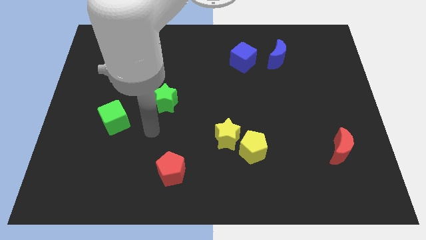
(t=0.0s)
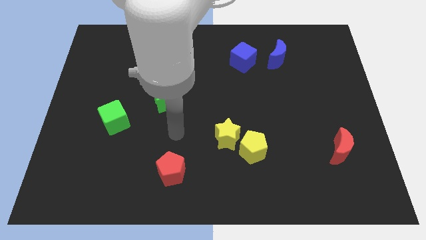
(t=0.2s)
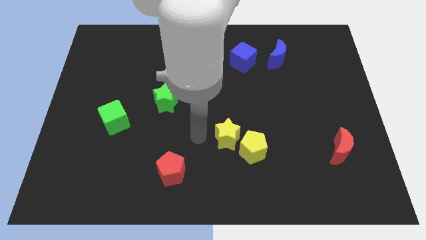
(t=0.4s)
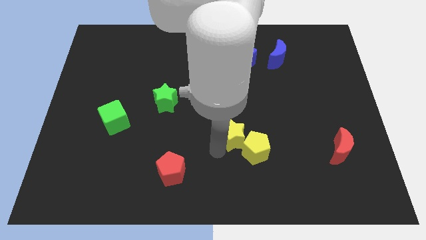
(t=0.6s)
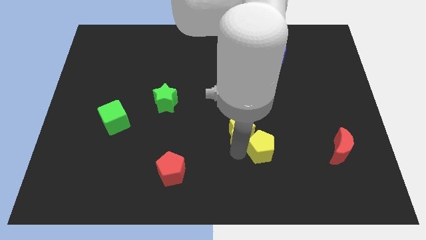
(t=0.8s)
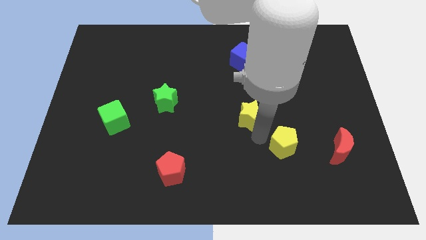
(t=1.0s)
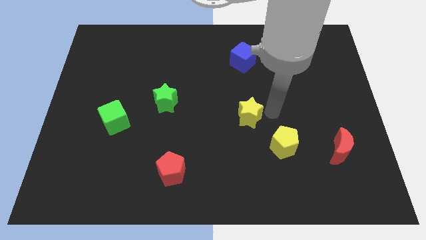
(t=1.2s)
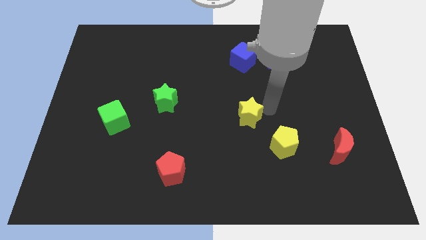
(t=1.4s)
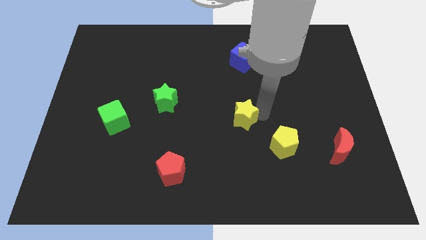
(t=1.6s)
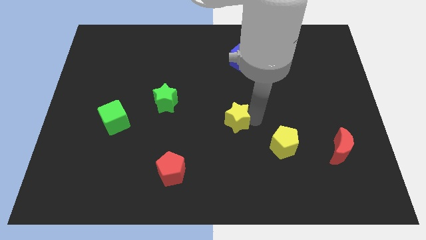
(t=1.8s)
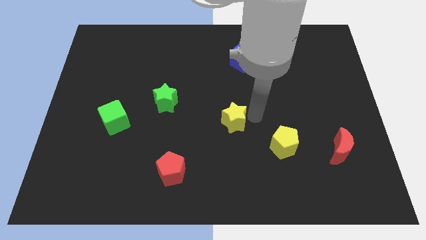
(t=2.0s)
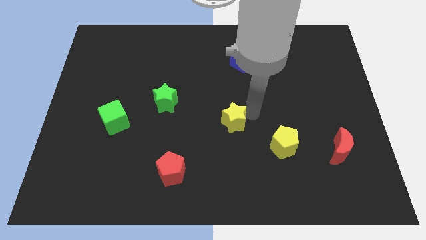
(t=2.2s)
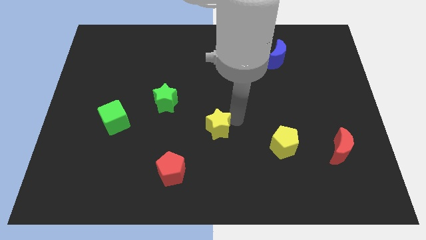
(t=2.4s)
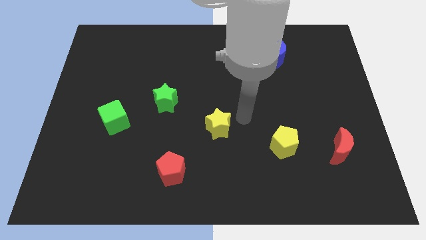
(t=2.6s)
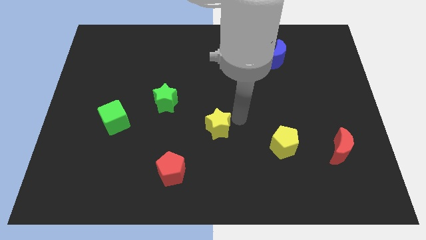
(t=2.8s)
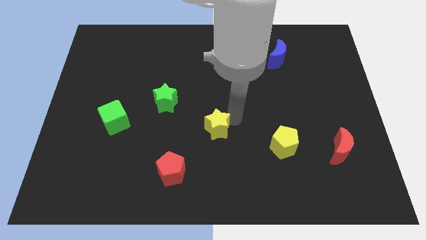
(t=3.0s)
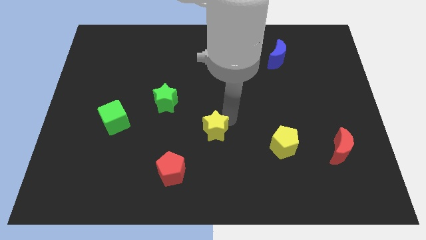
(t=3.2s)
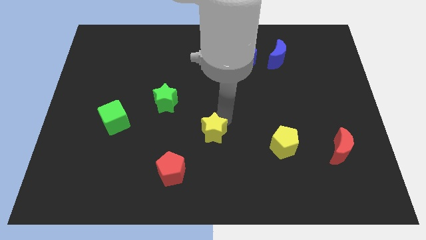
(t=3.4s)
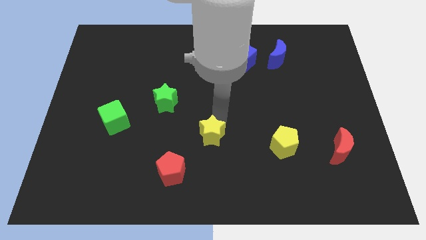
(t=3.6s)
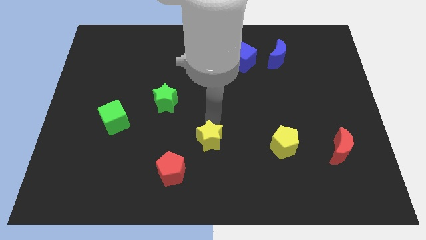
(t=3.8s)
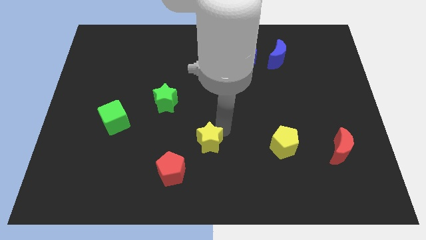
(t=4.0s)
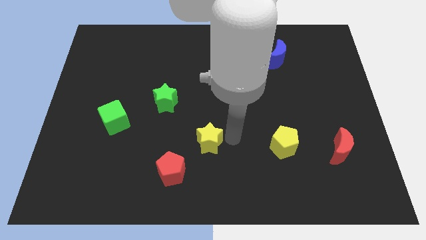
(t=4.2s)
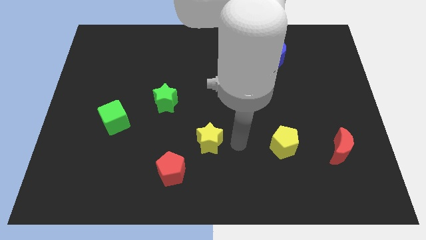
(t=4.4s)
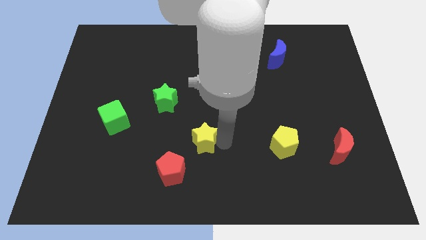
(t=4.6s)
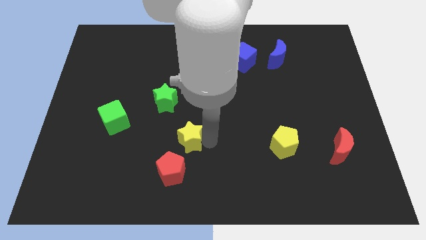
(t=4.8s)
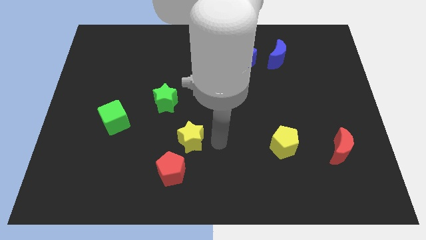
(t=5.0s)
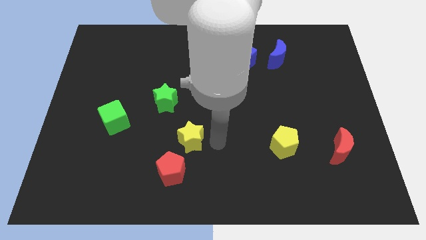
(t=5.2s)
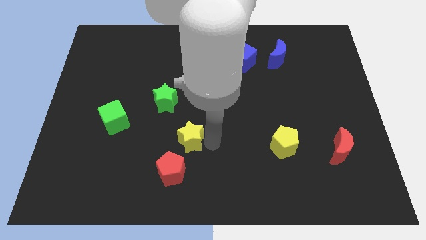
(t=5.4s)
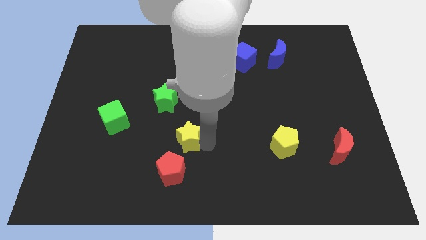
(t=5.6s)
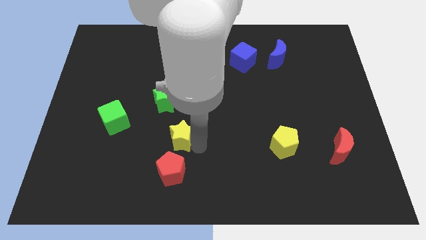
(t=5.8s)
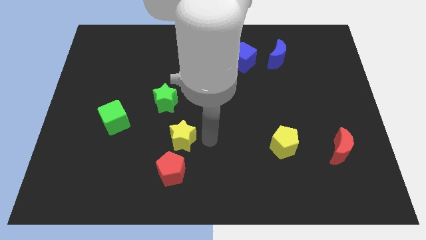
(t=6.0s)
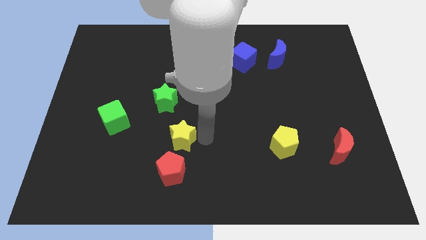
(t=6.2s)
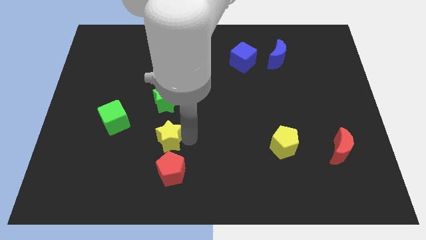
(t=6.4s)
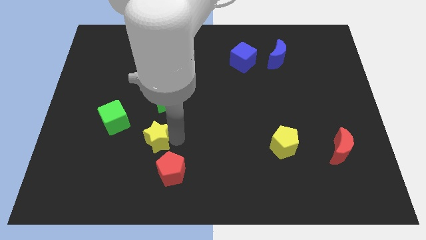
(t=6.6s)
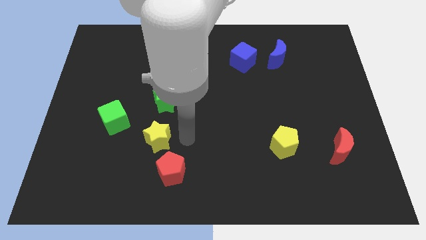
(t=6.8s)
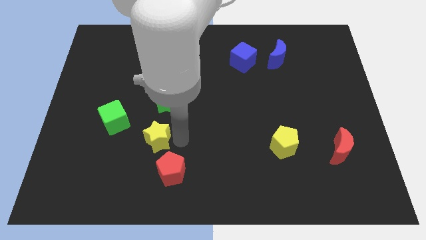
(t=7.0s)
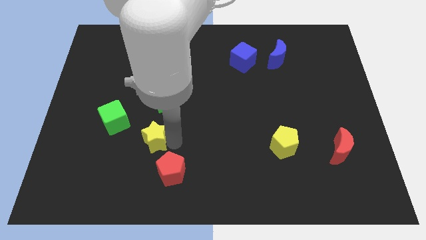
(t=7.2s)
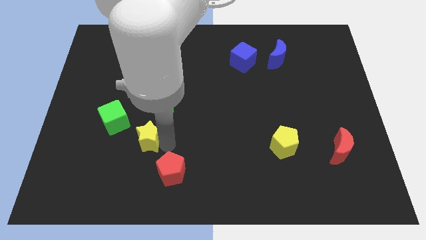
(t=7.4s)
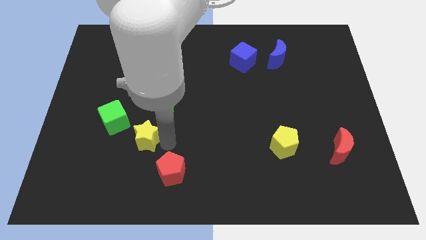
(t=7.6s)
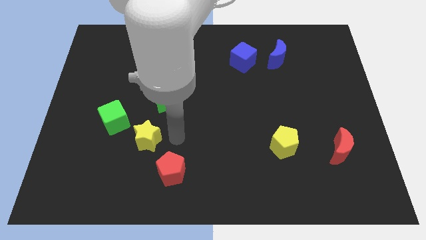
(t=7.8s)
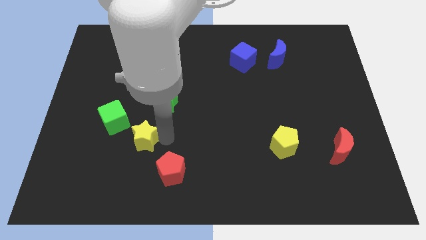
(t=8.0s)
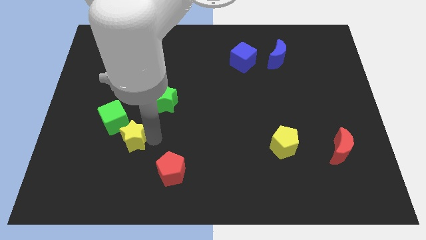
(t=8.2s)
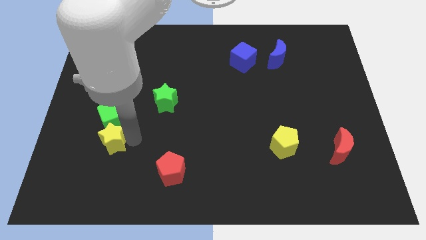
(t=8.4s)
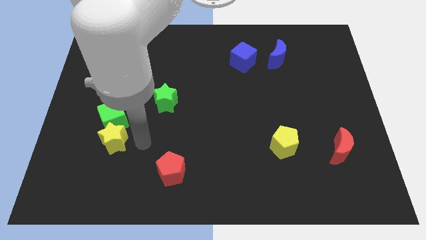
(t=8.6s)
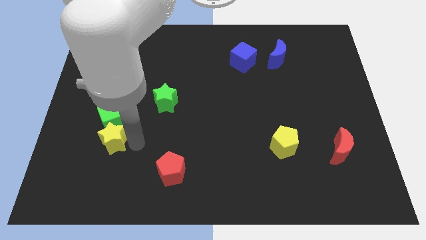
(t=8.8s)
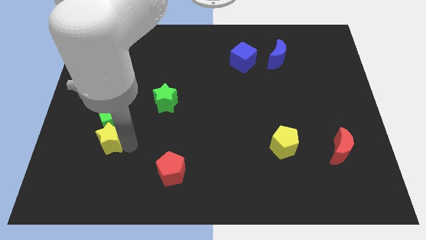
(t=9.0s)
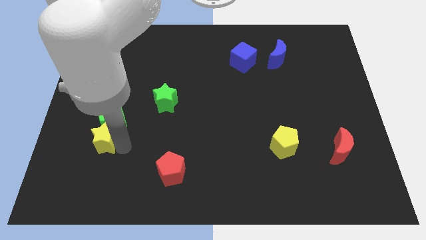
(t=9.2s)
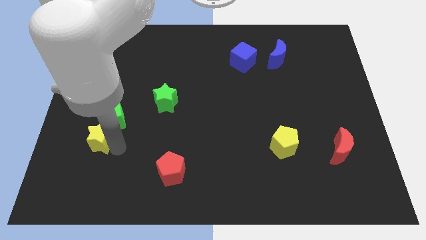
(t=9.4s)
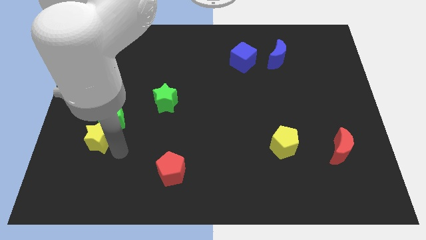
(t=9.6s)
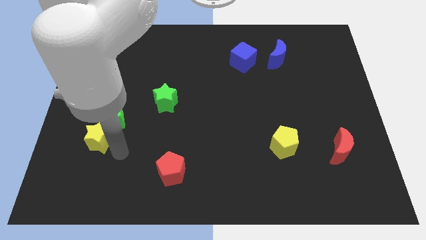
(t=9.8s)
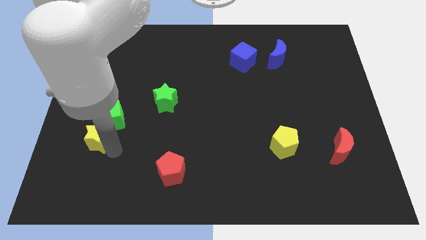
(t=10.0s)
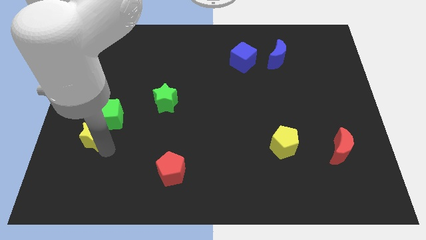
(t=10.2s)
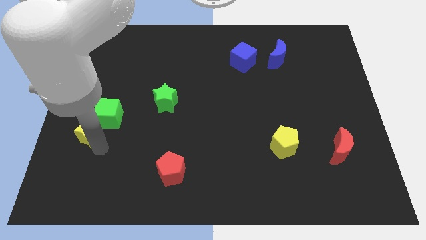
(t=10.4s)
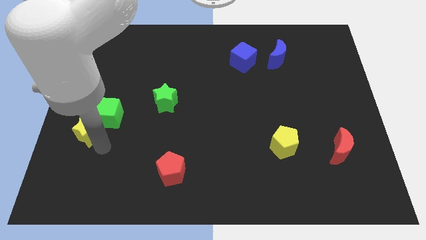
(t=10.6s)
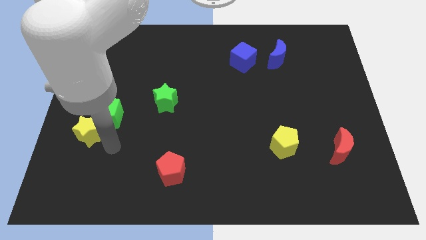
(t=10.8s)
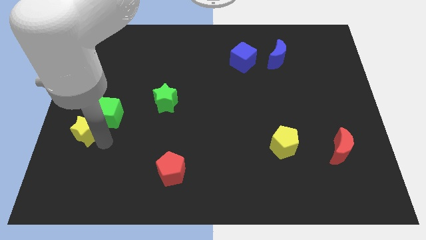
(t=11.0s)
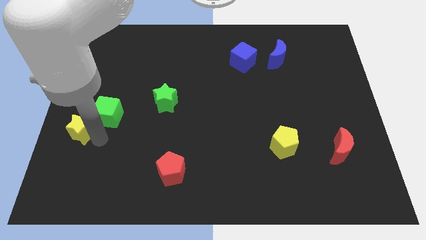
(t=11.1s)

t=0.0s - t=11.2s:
put the yellow star to the center left

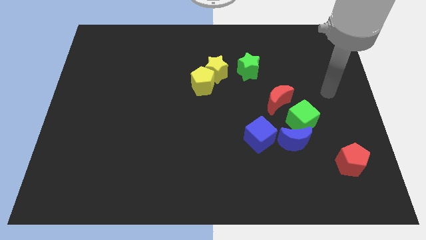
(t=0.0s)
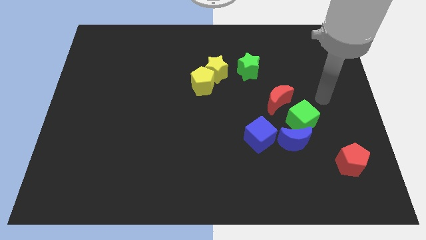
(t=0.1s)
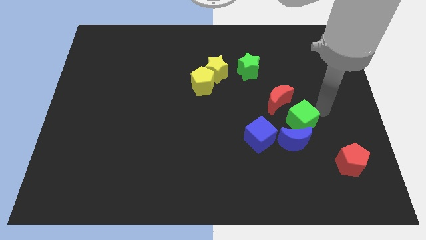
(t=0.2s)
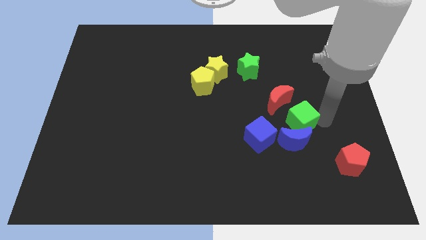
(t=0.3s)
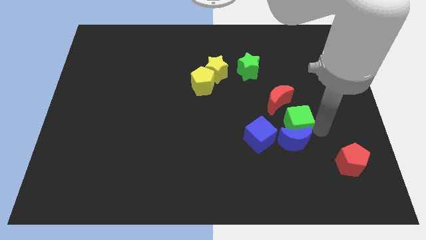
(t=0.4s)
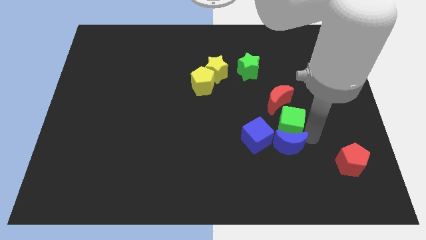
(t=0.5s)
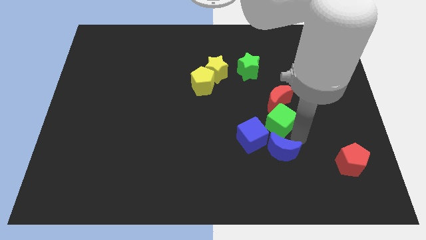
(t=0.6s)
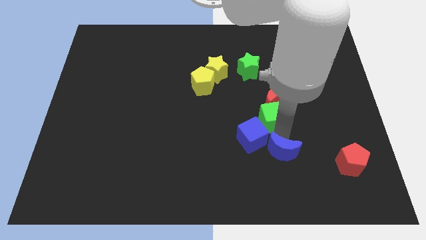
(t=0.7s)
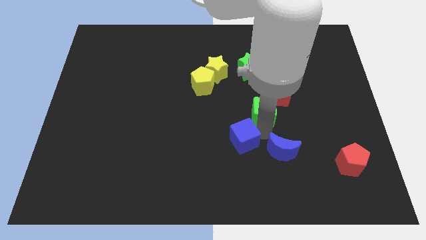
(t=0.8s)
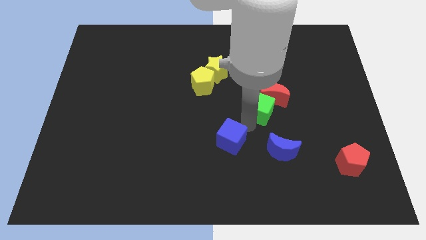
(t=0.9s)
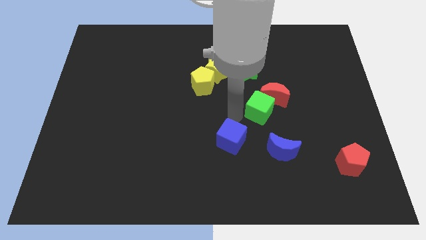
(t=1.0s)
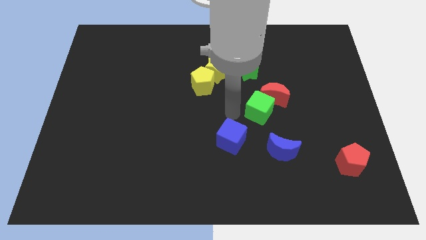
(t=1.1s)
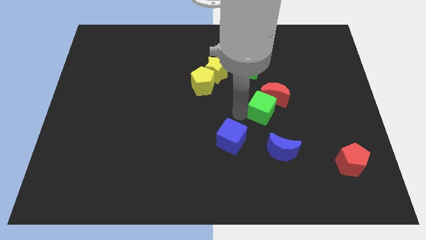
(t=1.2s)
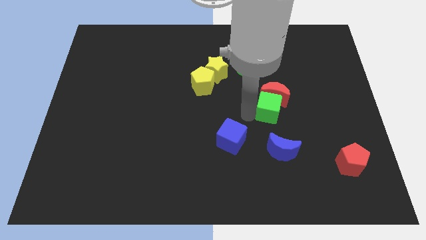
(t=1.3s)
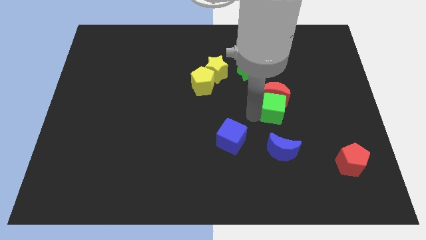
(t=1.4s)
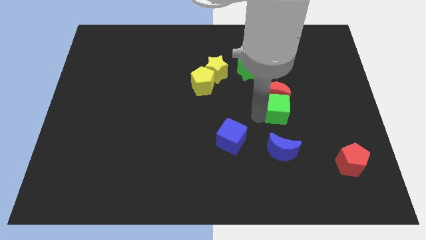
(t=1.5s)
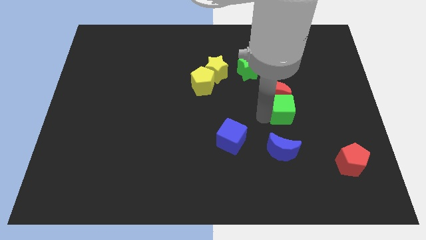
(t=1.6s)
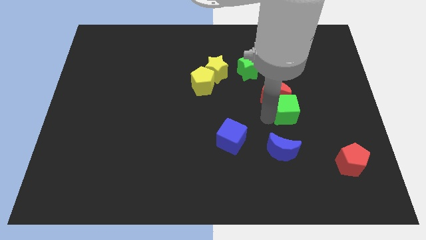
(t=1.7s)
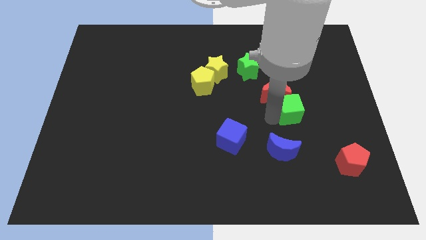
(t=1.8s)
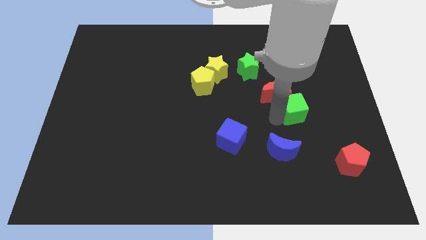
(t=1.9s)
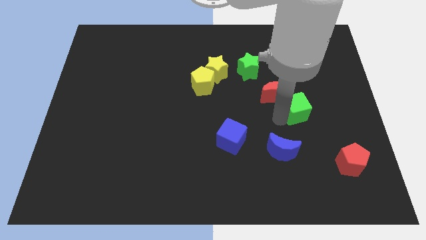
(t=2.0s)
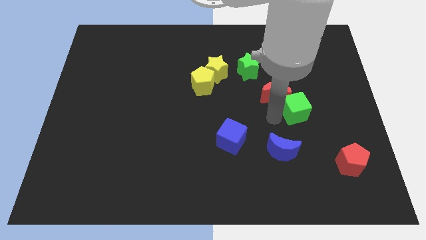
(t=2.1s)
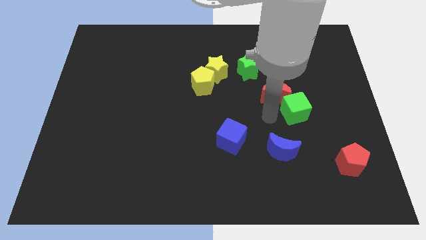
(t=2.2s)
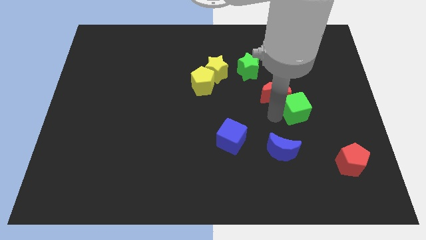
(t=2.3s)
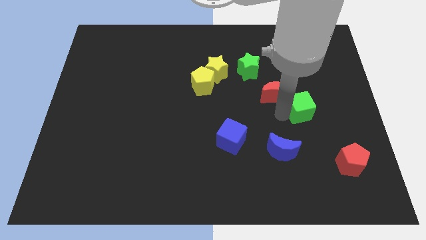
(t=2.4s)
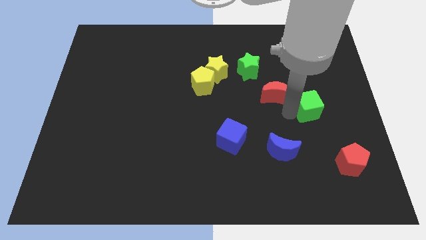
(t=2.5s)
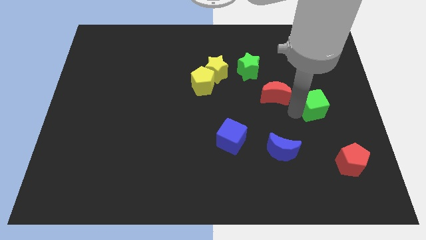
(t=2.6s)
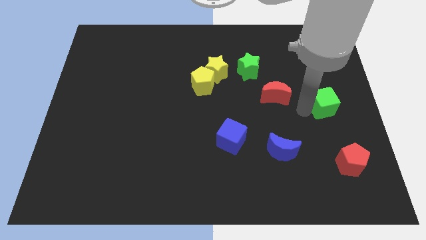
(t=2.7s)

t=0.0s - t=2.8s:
push the green cube to the center right
